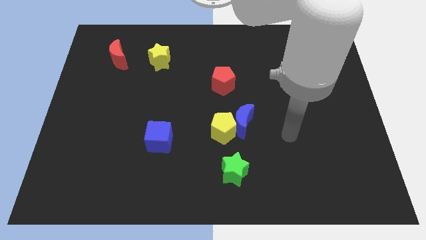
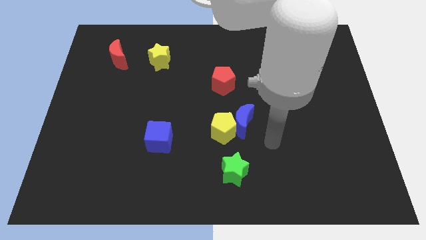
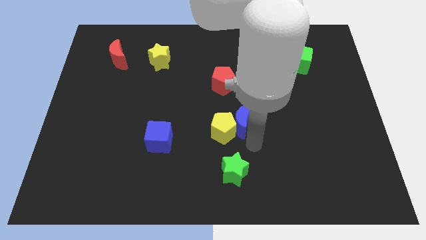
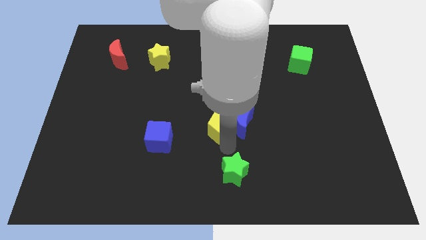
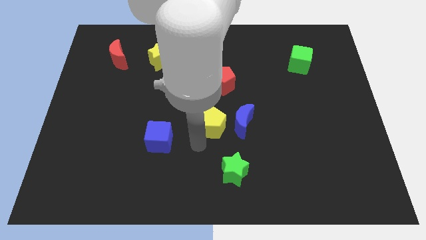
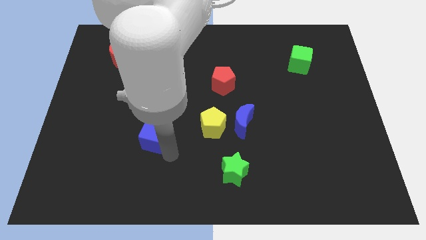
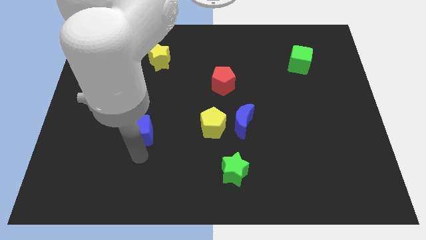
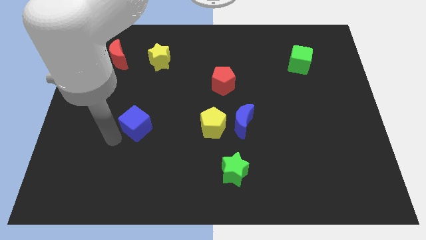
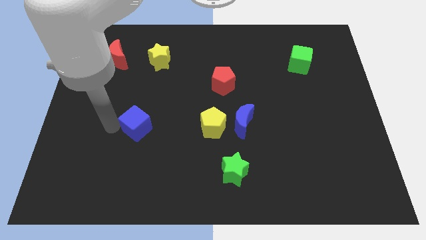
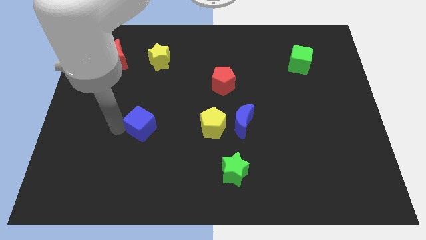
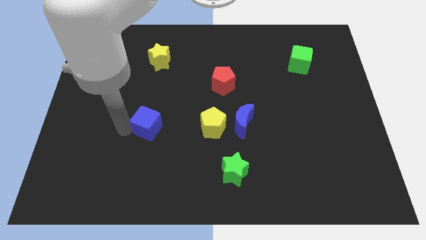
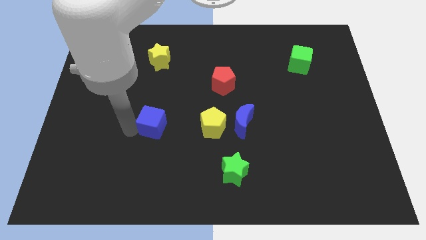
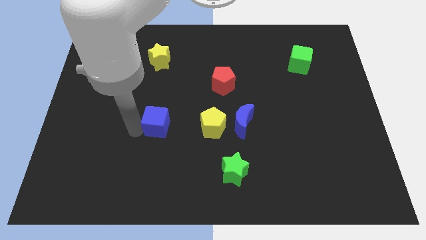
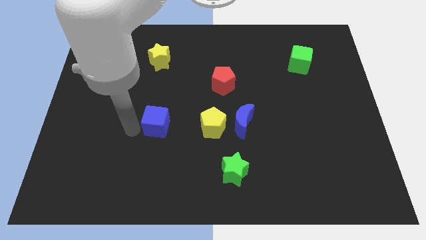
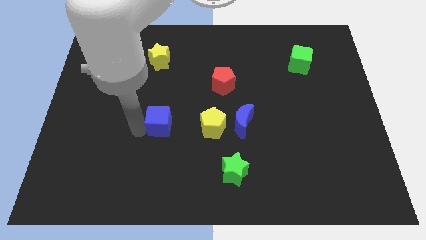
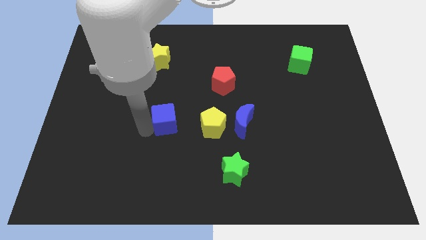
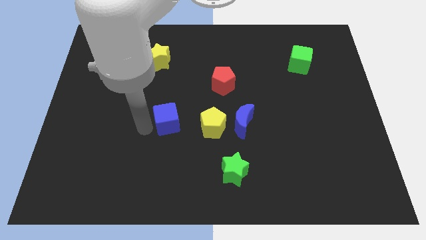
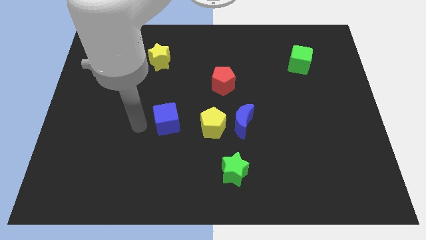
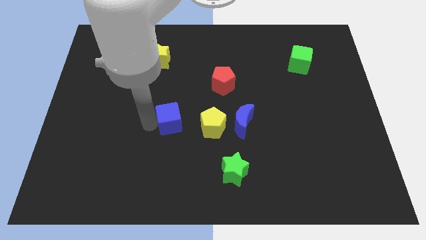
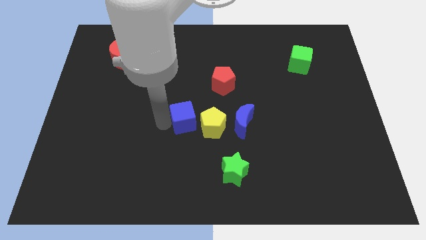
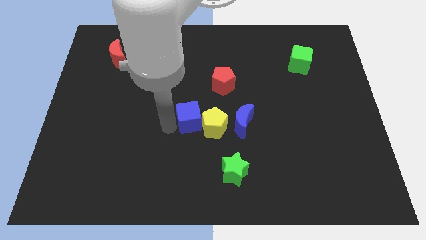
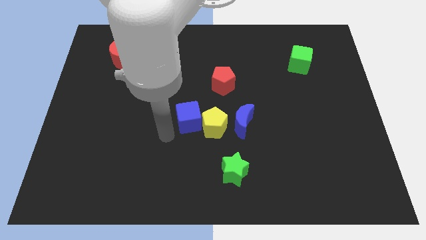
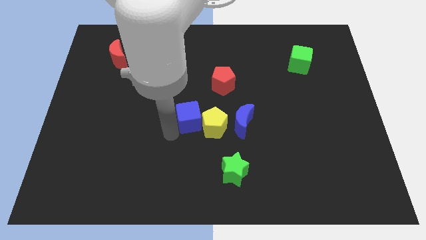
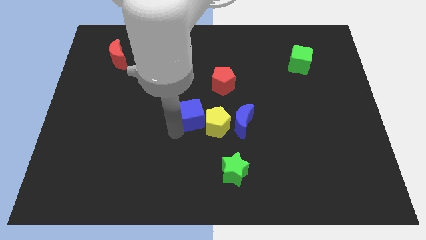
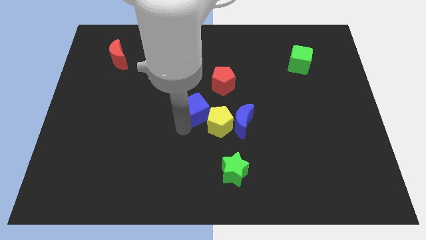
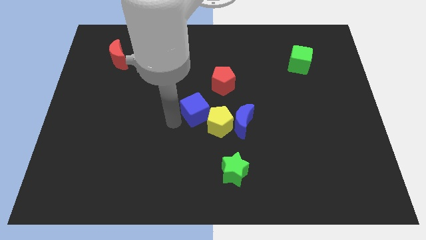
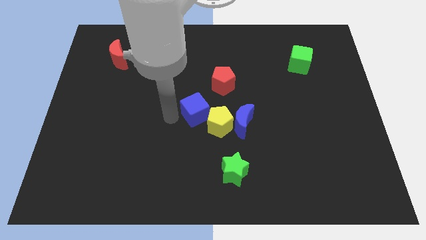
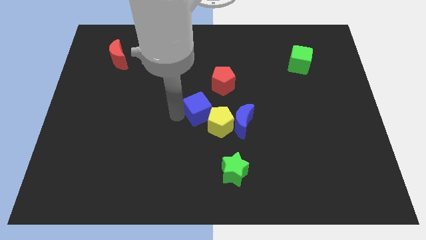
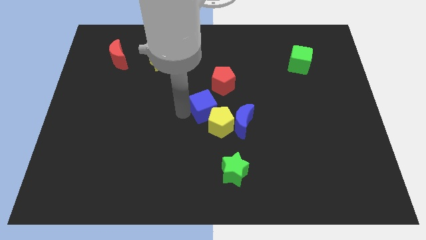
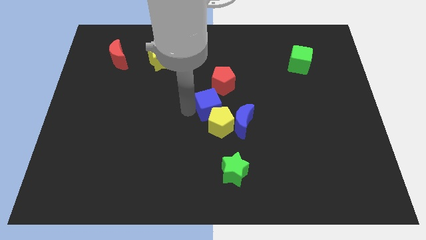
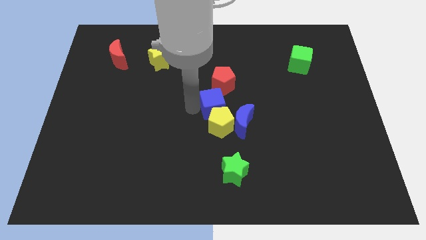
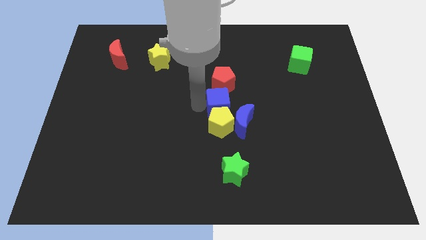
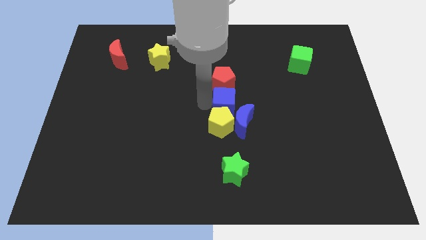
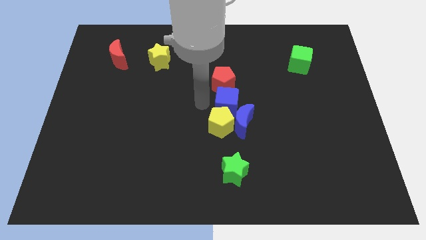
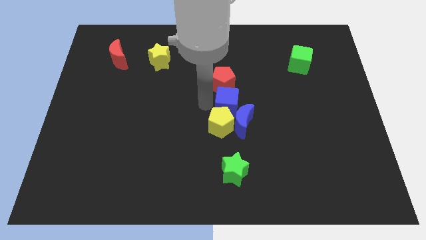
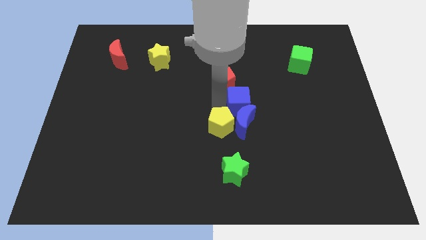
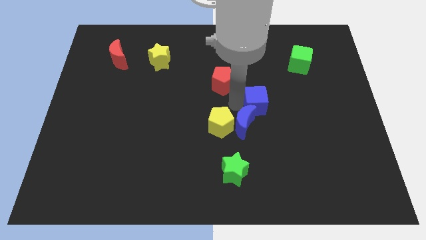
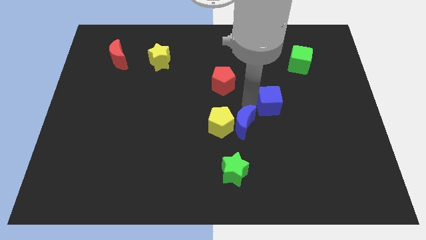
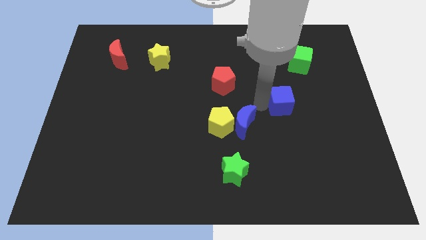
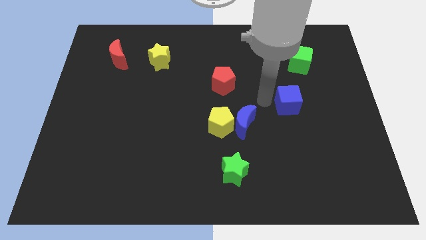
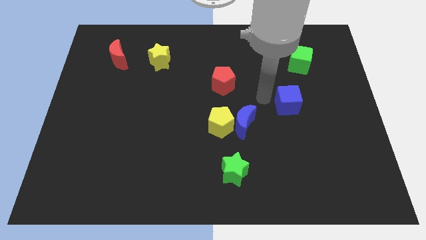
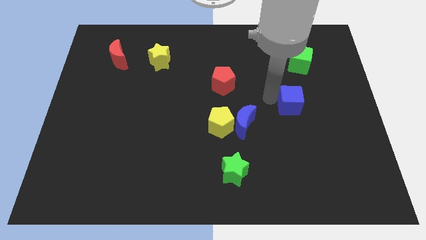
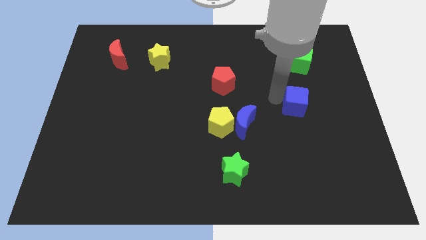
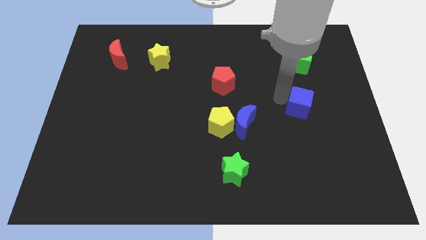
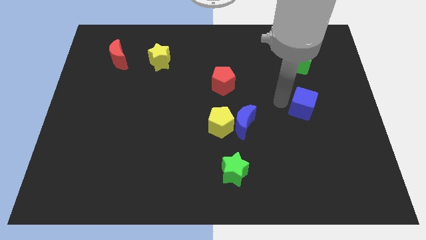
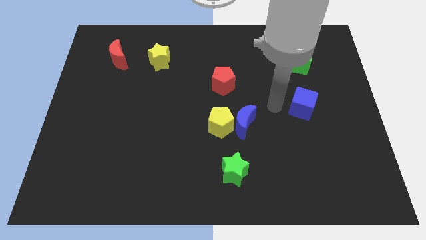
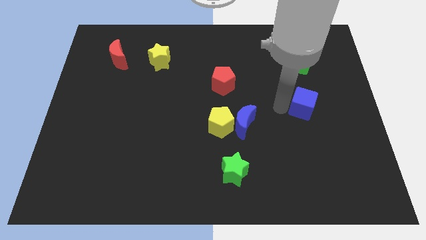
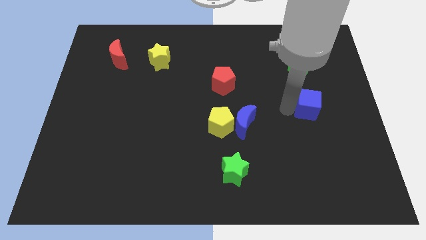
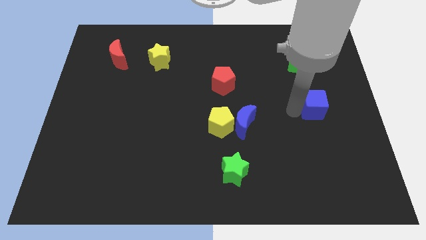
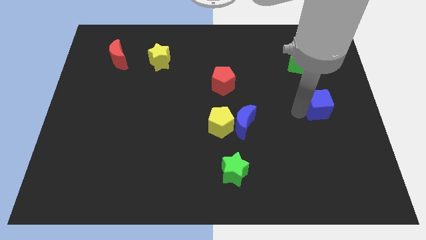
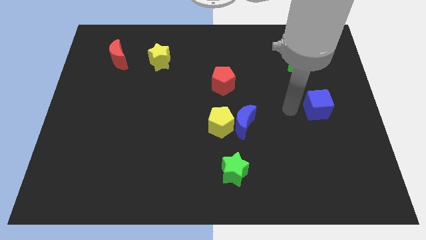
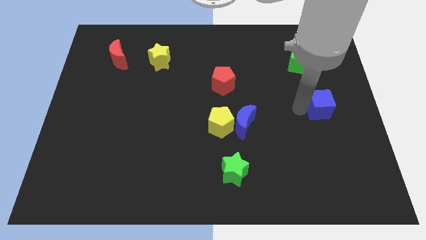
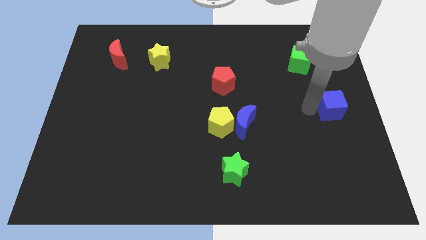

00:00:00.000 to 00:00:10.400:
put the blue cube to the right side of the board
